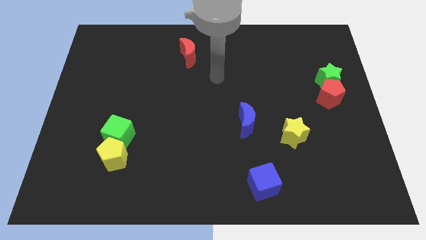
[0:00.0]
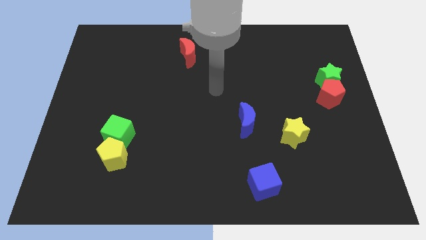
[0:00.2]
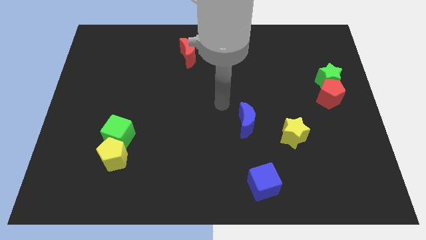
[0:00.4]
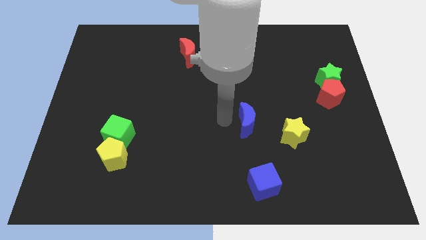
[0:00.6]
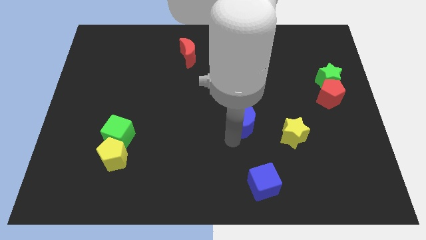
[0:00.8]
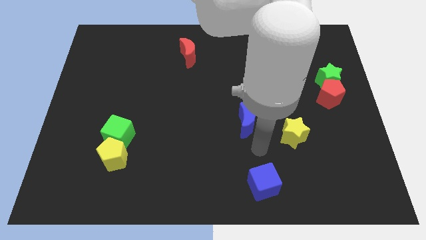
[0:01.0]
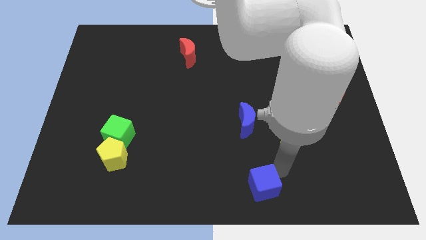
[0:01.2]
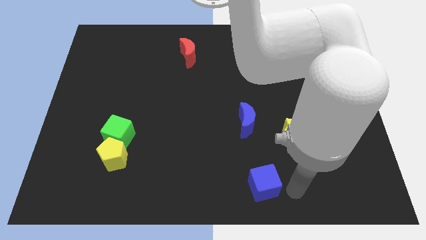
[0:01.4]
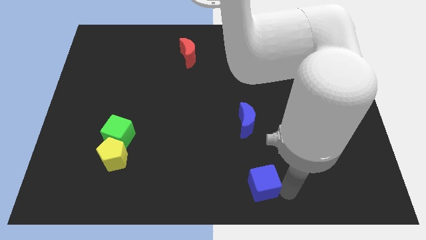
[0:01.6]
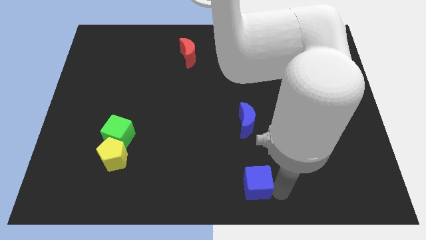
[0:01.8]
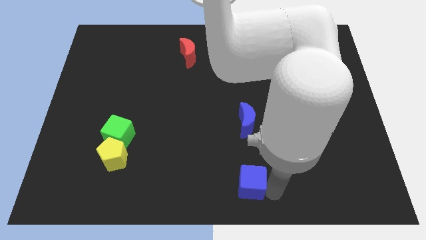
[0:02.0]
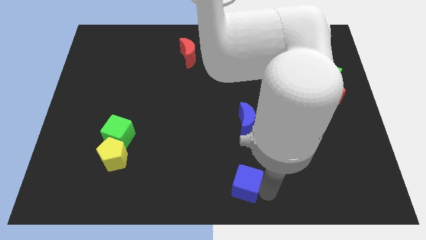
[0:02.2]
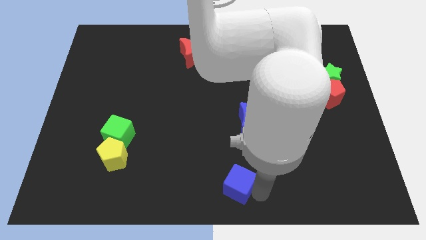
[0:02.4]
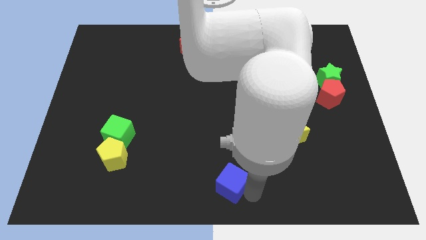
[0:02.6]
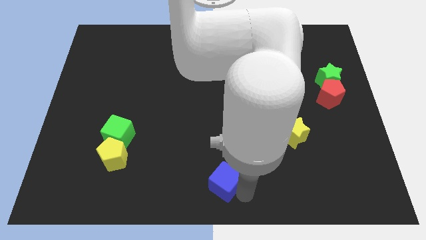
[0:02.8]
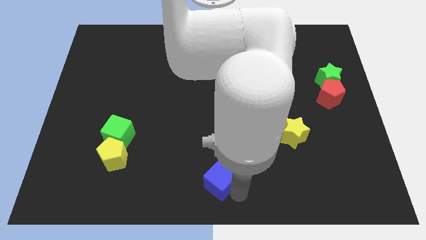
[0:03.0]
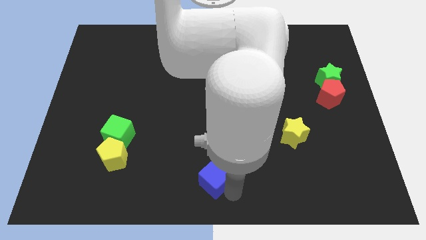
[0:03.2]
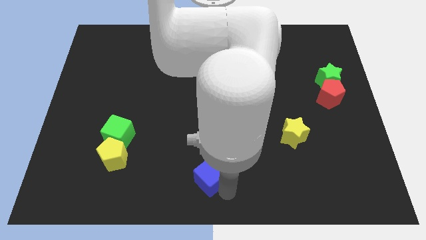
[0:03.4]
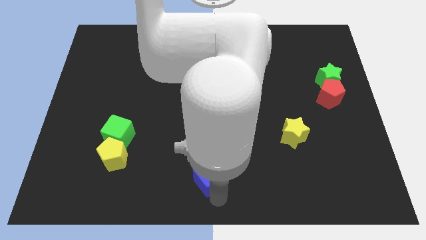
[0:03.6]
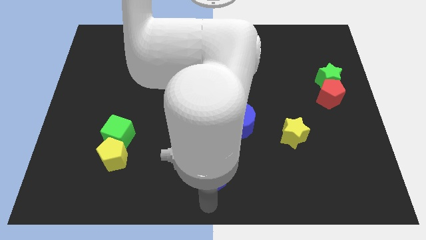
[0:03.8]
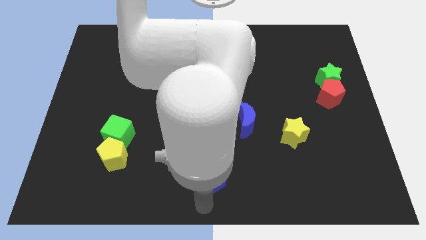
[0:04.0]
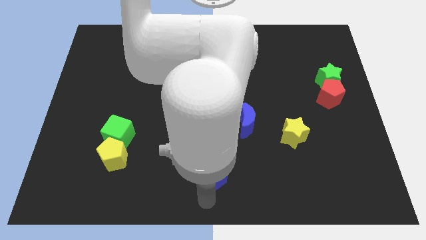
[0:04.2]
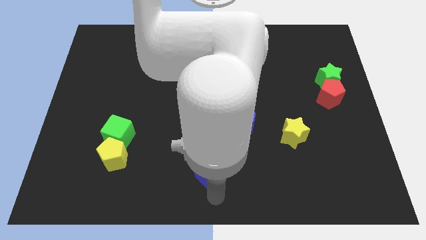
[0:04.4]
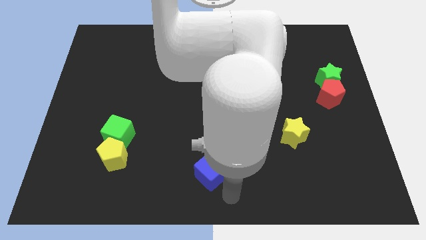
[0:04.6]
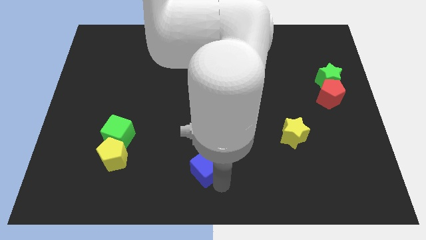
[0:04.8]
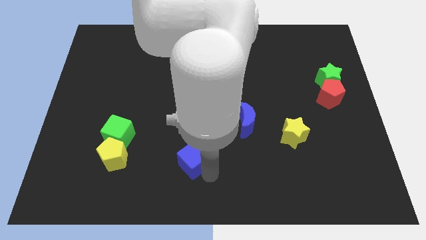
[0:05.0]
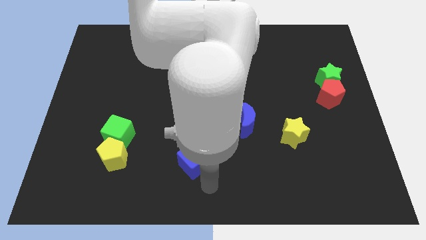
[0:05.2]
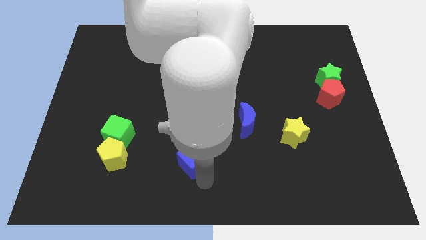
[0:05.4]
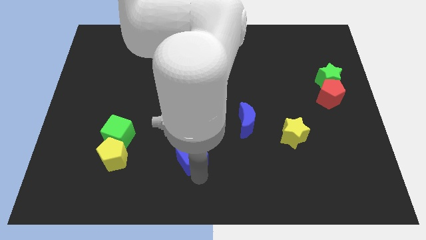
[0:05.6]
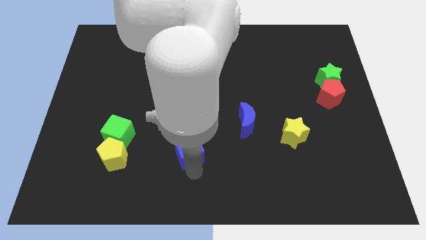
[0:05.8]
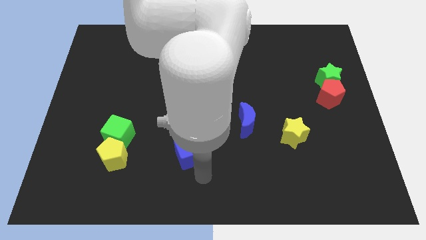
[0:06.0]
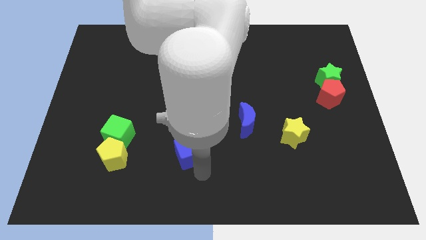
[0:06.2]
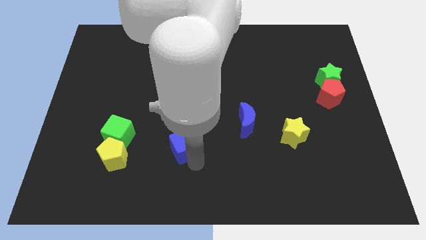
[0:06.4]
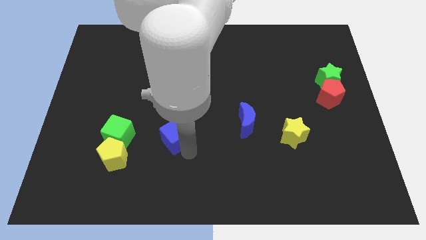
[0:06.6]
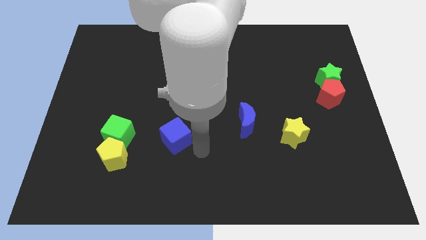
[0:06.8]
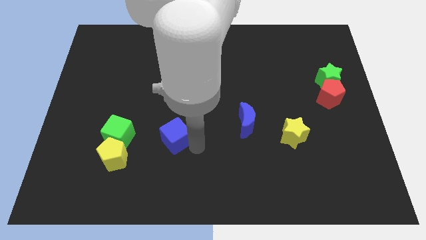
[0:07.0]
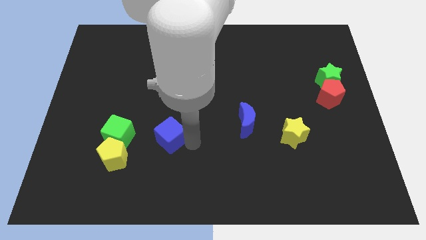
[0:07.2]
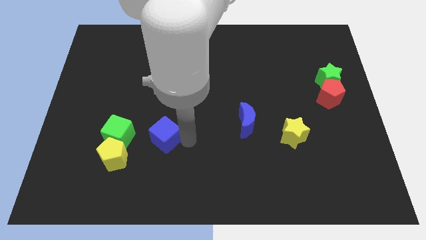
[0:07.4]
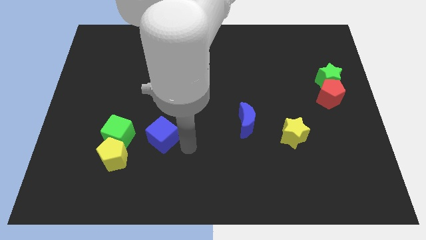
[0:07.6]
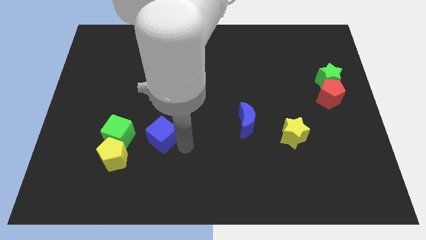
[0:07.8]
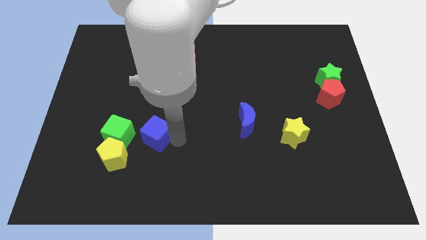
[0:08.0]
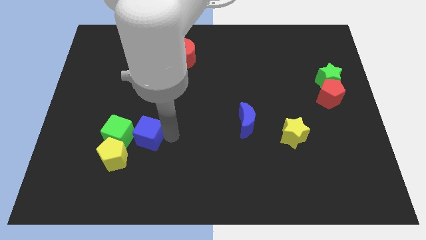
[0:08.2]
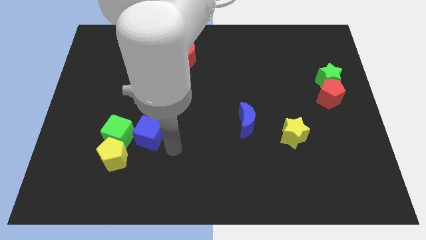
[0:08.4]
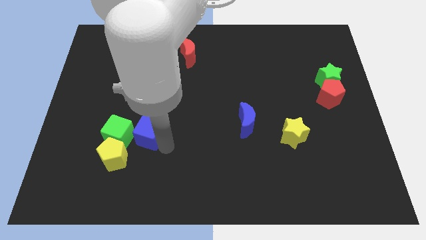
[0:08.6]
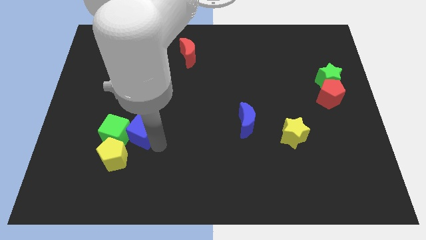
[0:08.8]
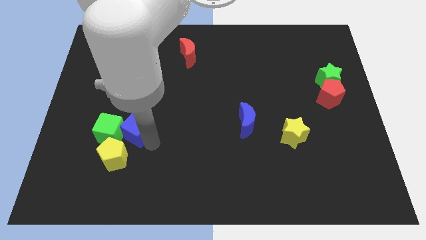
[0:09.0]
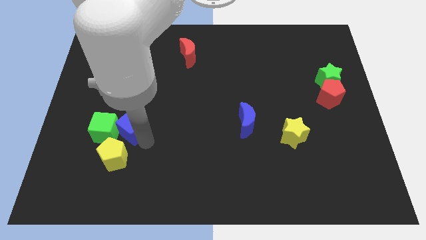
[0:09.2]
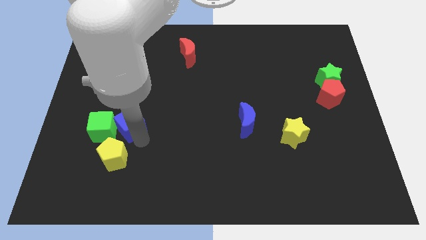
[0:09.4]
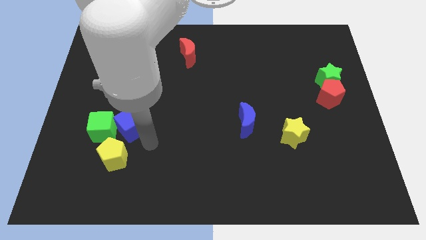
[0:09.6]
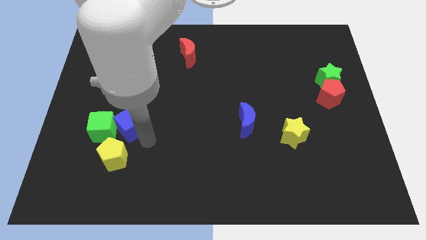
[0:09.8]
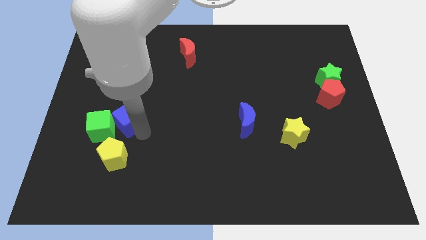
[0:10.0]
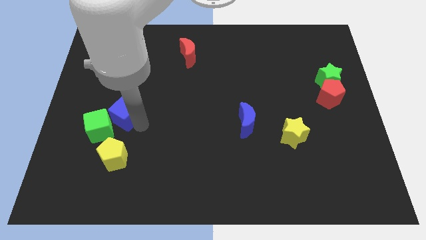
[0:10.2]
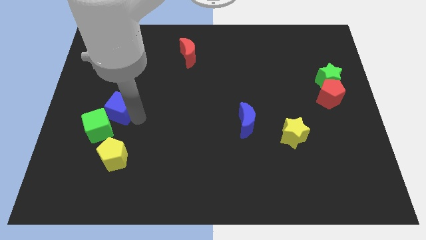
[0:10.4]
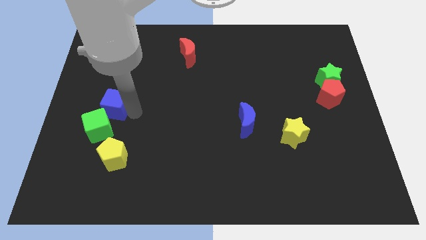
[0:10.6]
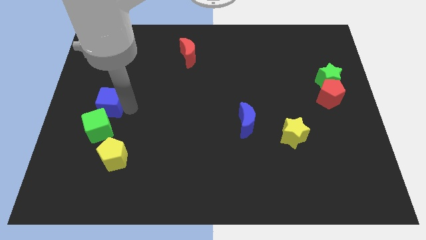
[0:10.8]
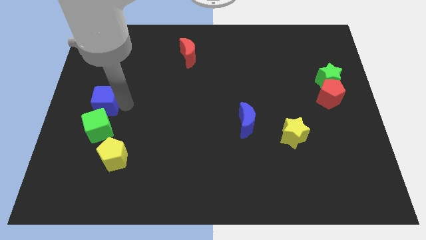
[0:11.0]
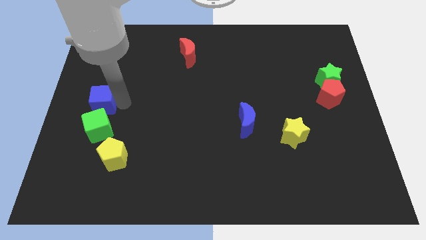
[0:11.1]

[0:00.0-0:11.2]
push the blue cube to the top left of the green cube

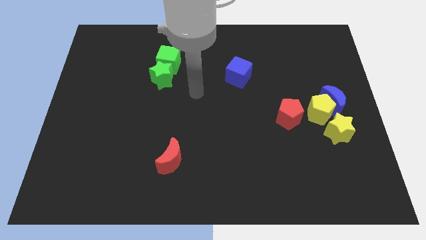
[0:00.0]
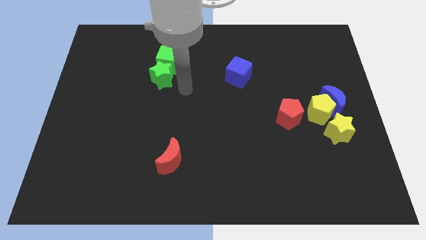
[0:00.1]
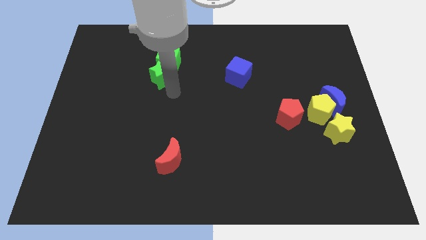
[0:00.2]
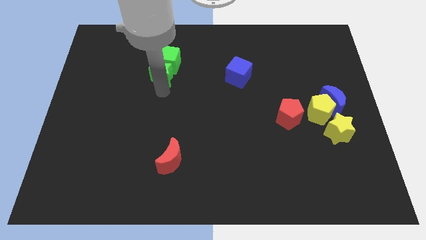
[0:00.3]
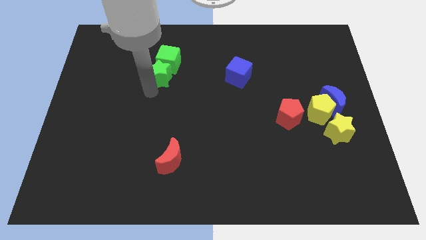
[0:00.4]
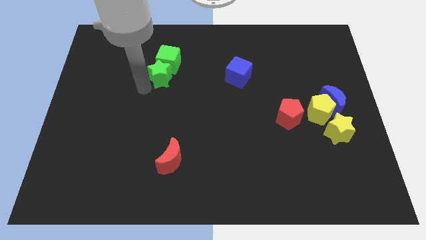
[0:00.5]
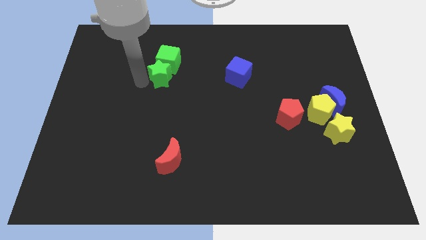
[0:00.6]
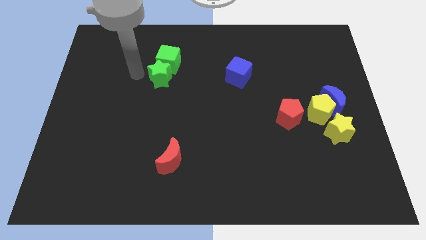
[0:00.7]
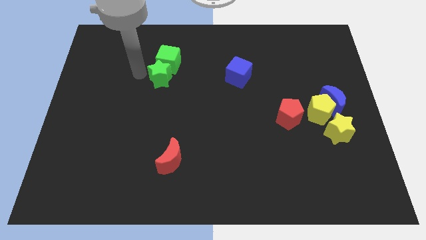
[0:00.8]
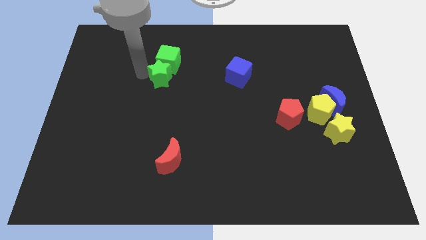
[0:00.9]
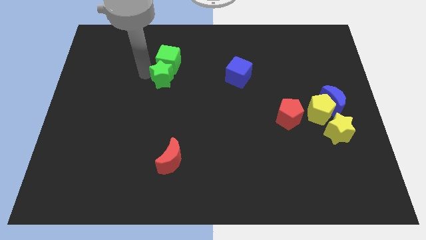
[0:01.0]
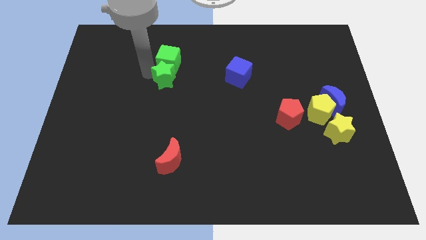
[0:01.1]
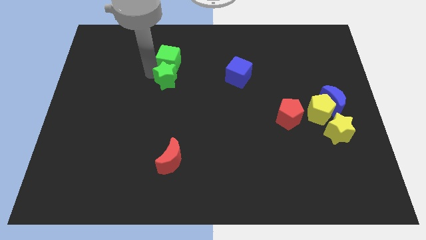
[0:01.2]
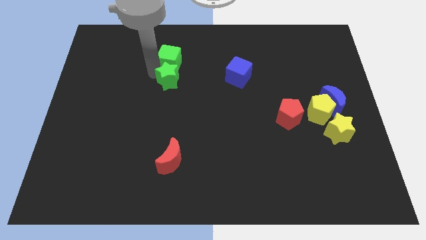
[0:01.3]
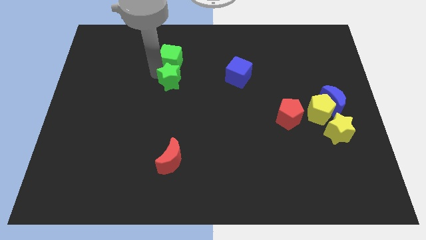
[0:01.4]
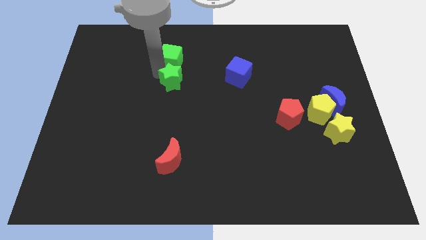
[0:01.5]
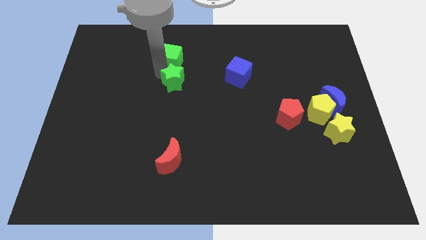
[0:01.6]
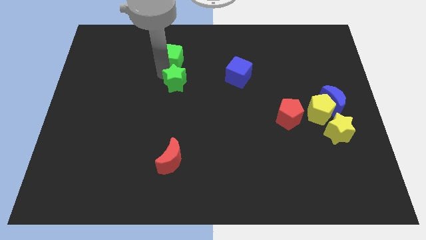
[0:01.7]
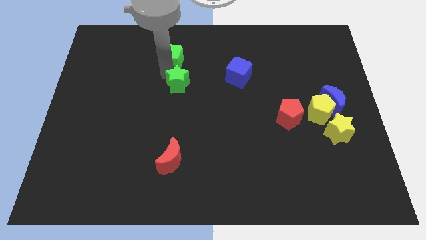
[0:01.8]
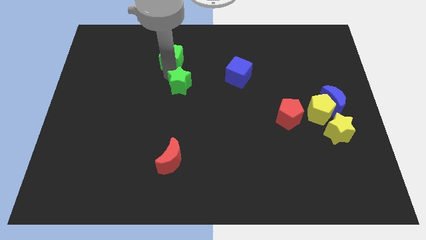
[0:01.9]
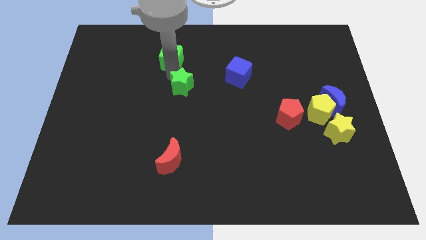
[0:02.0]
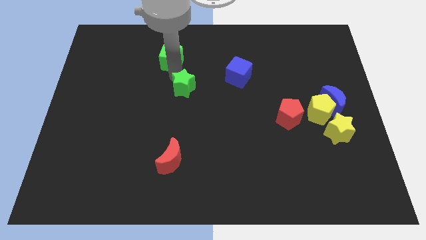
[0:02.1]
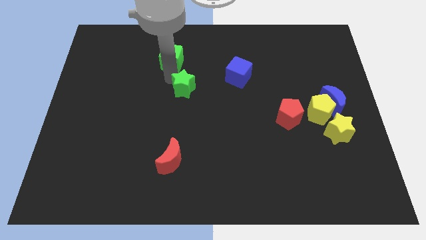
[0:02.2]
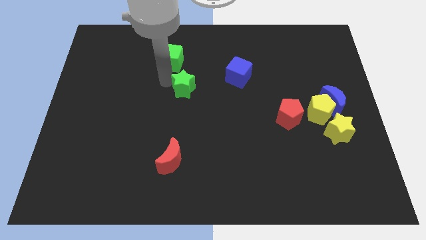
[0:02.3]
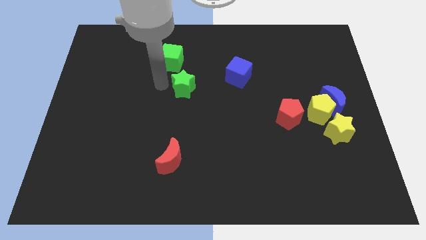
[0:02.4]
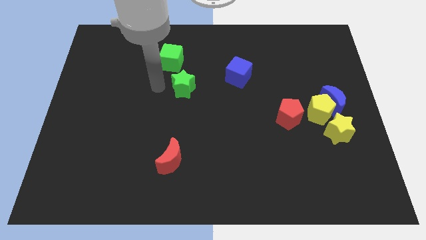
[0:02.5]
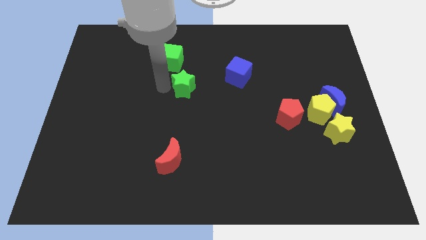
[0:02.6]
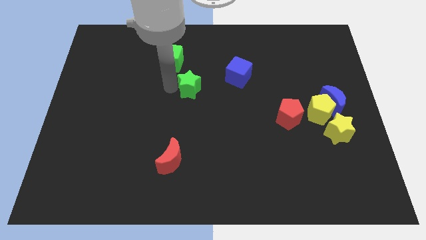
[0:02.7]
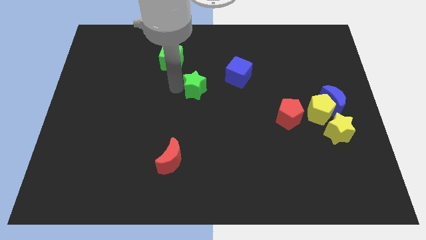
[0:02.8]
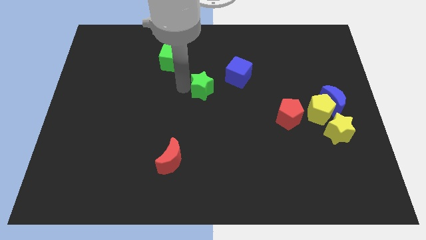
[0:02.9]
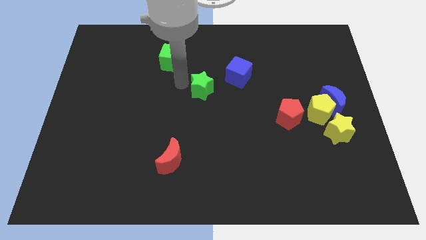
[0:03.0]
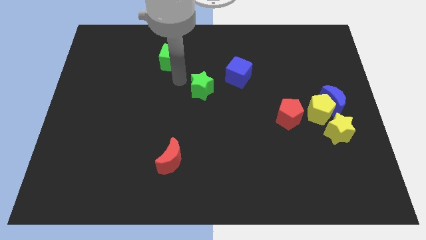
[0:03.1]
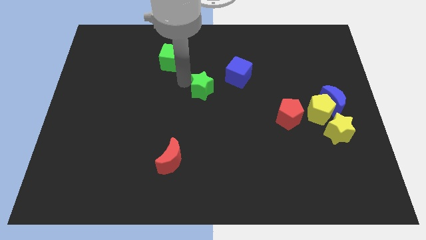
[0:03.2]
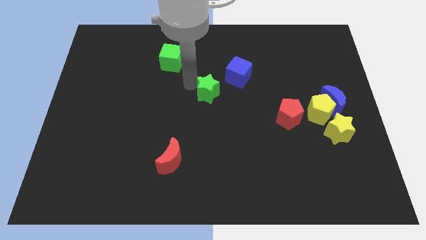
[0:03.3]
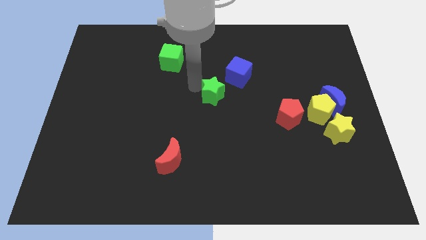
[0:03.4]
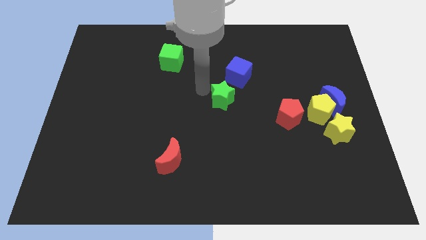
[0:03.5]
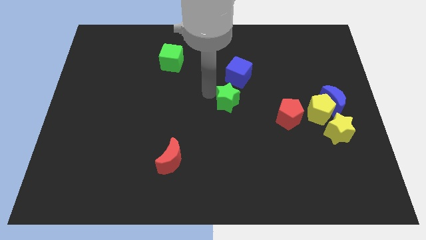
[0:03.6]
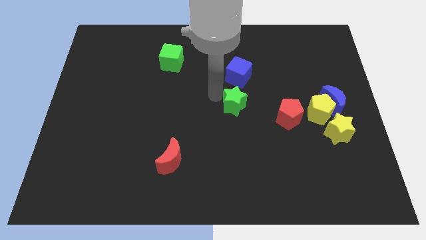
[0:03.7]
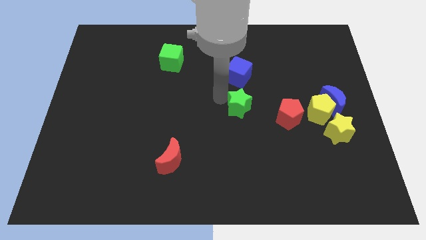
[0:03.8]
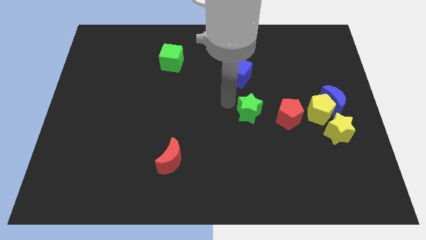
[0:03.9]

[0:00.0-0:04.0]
move the green star to the left side of the yellow pentagon
